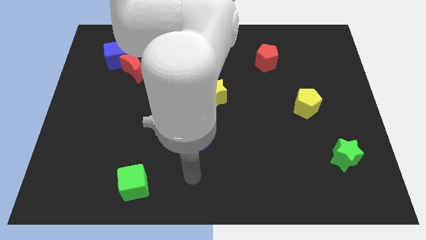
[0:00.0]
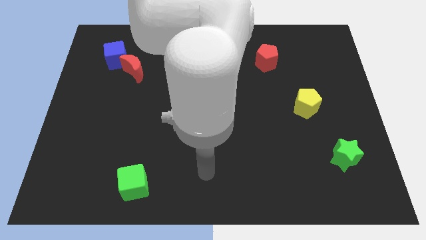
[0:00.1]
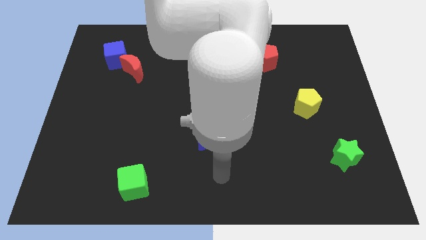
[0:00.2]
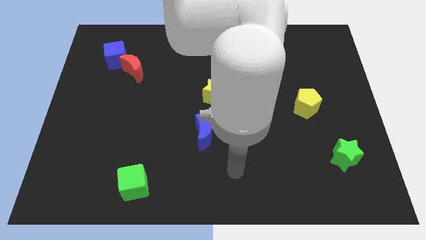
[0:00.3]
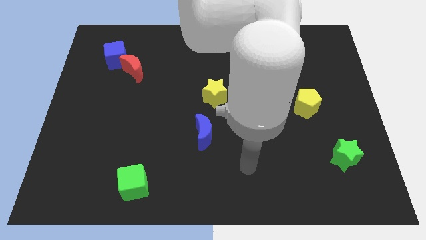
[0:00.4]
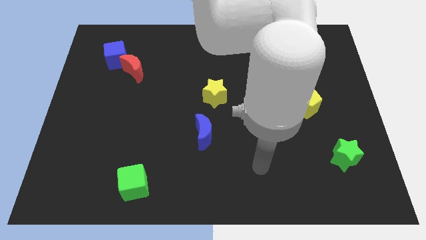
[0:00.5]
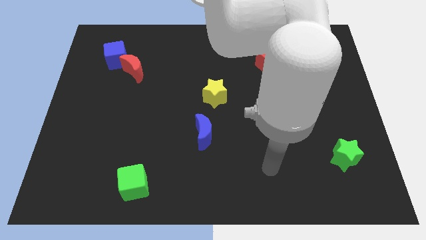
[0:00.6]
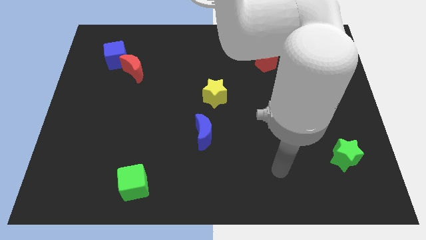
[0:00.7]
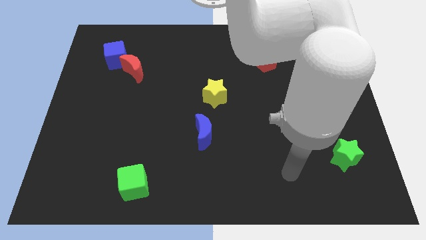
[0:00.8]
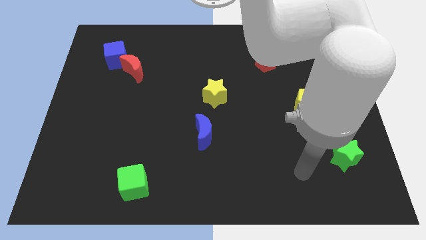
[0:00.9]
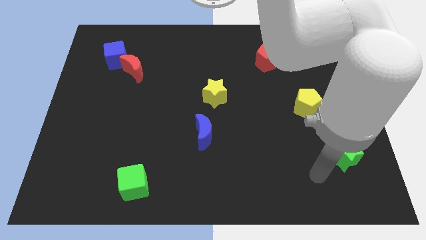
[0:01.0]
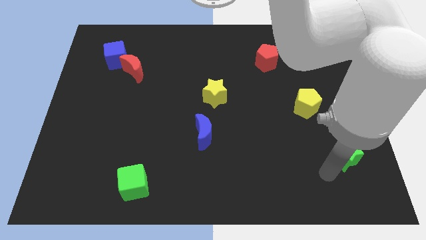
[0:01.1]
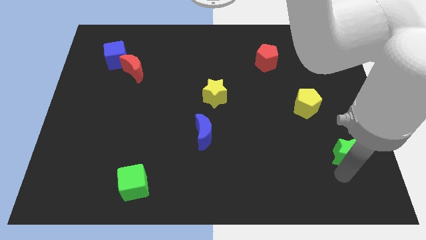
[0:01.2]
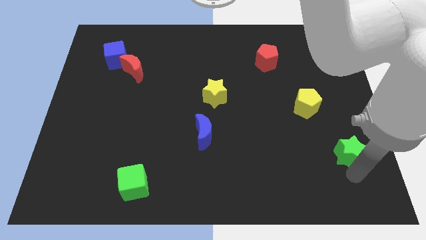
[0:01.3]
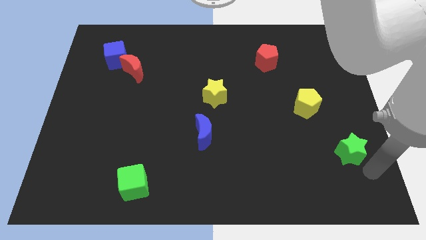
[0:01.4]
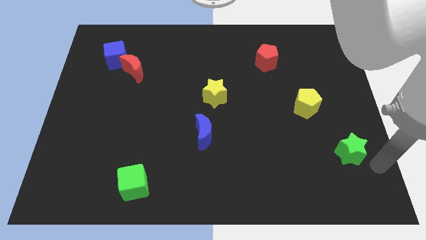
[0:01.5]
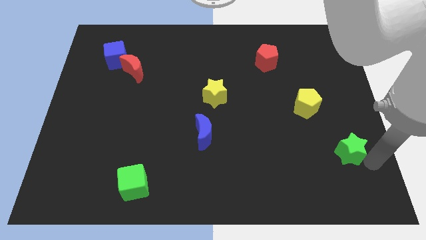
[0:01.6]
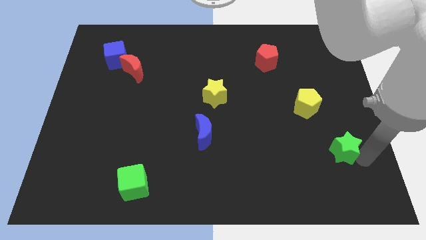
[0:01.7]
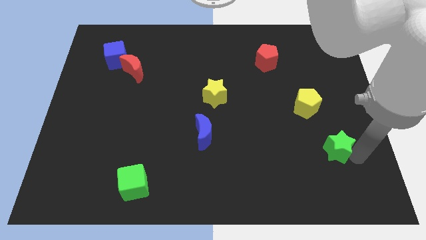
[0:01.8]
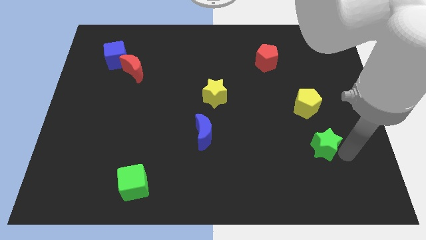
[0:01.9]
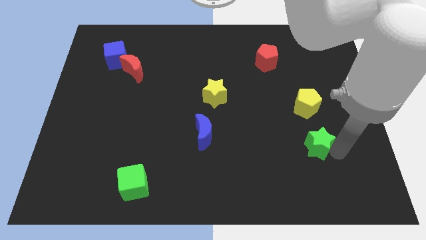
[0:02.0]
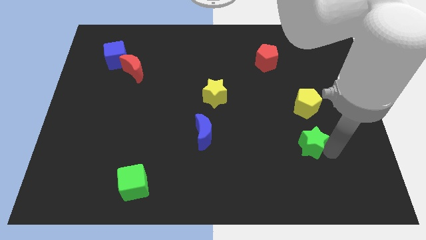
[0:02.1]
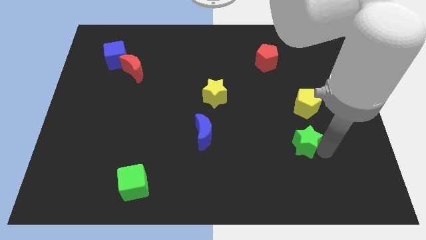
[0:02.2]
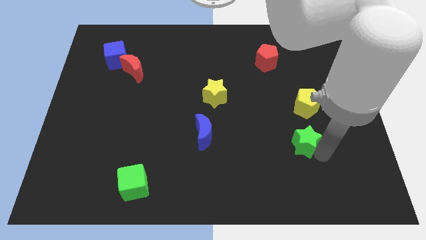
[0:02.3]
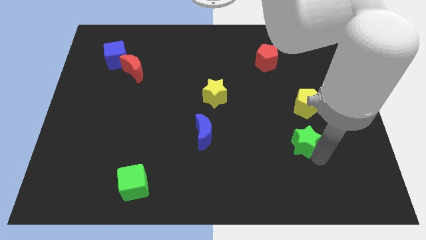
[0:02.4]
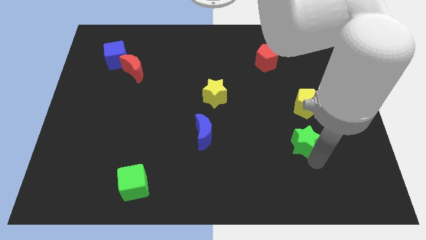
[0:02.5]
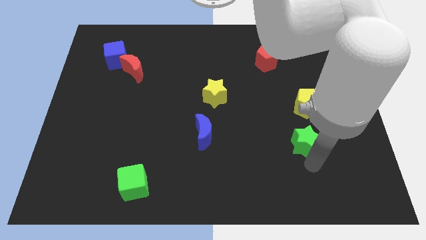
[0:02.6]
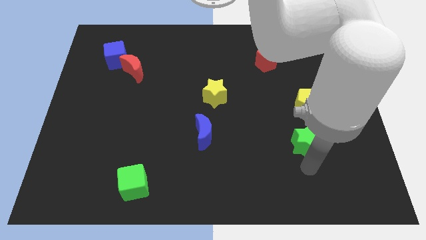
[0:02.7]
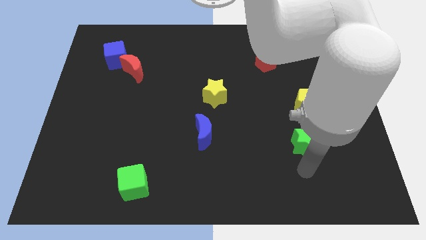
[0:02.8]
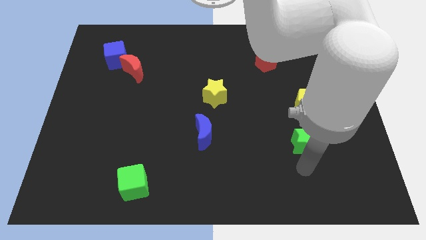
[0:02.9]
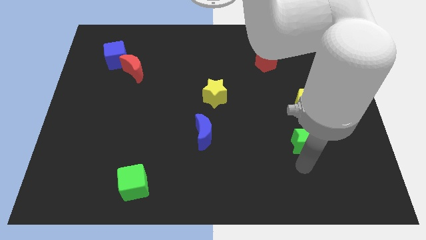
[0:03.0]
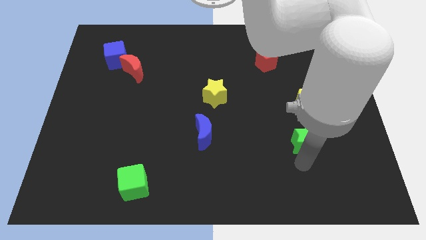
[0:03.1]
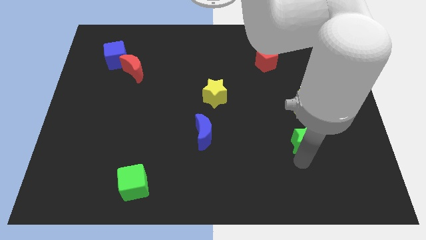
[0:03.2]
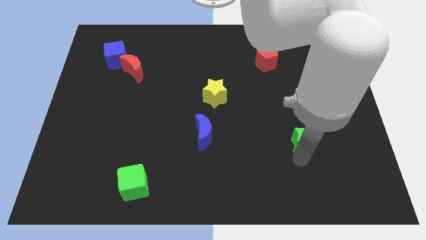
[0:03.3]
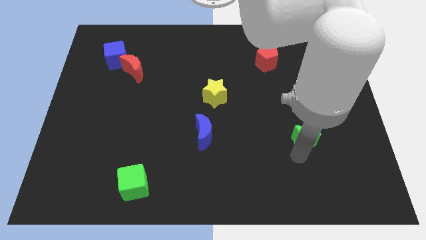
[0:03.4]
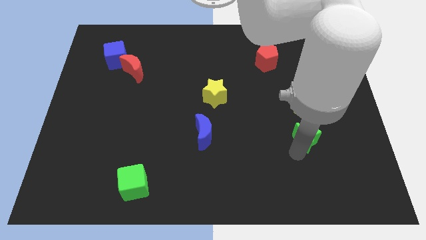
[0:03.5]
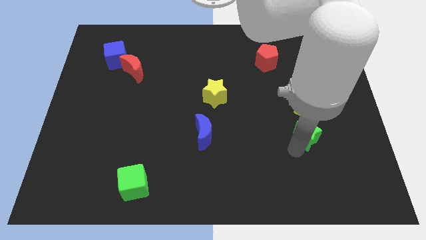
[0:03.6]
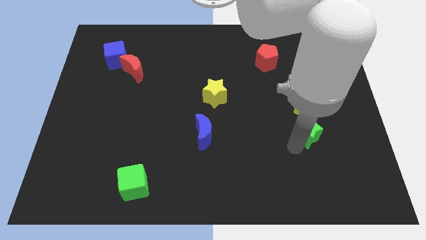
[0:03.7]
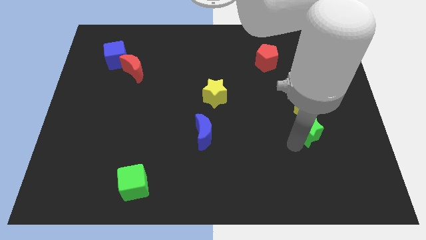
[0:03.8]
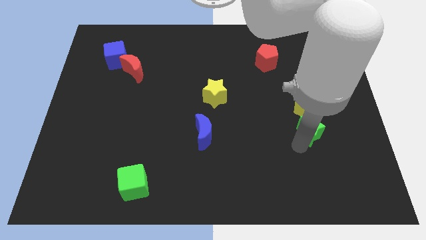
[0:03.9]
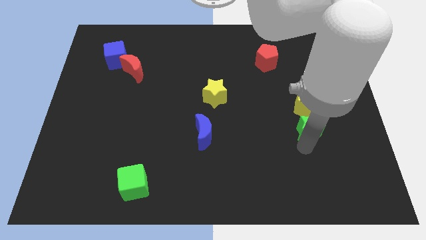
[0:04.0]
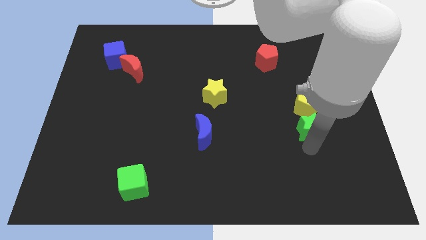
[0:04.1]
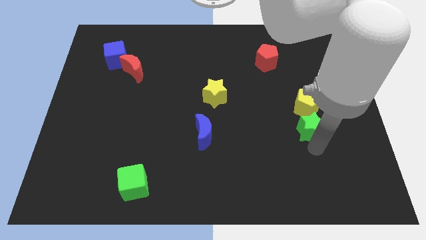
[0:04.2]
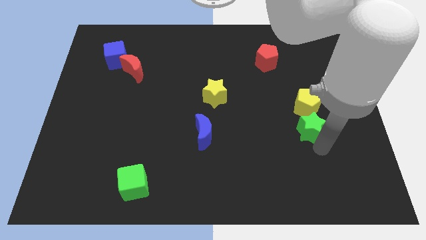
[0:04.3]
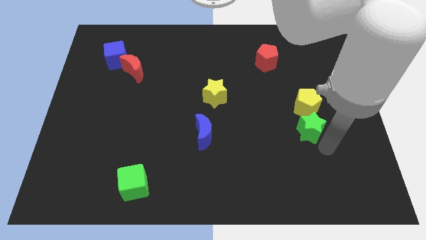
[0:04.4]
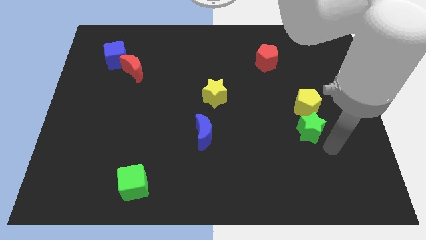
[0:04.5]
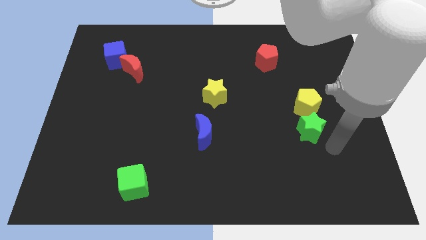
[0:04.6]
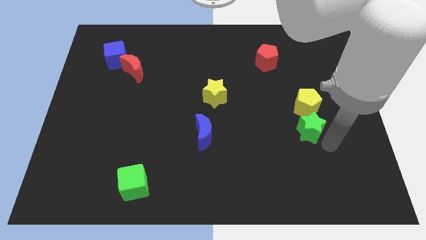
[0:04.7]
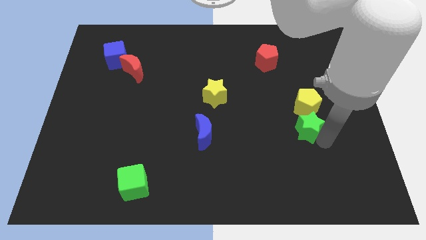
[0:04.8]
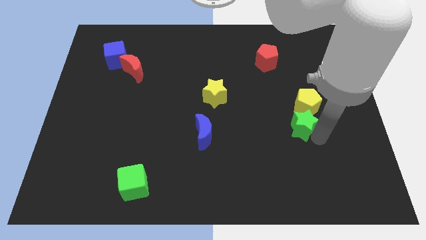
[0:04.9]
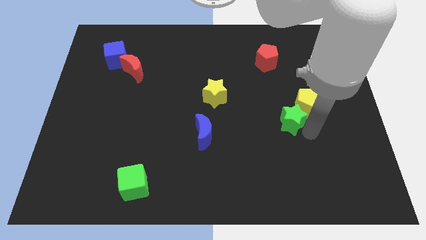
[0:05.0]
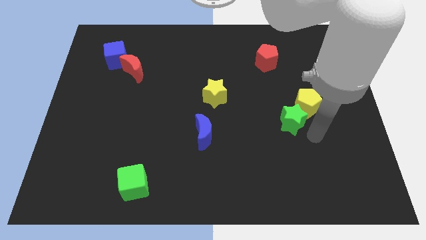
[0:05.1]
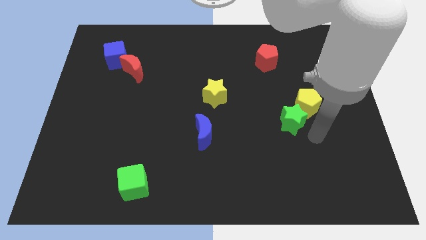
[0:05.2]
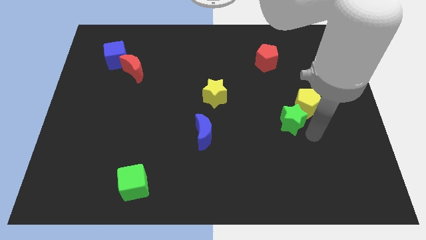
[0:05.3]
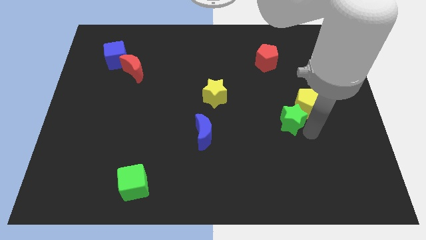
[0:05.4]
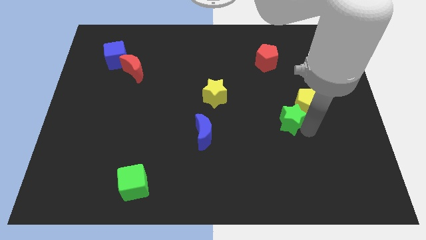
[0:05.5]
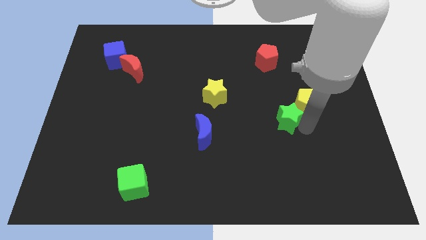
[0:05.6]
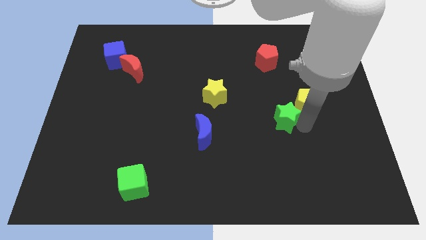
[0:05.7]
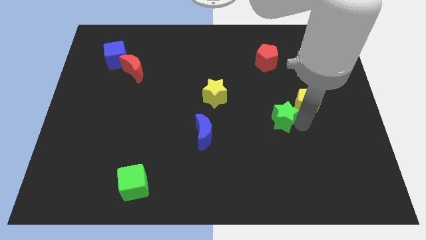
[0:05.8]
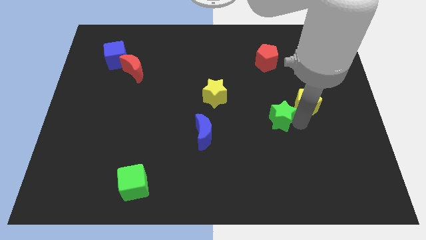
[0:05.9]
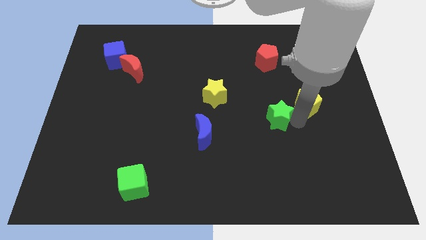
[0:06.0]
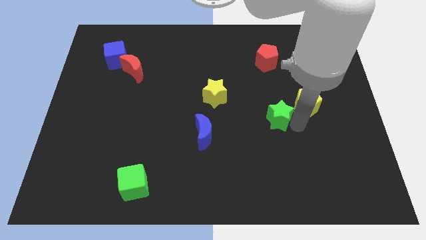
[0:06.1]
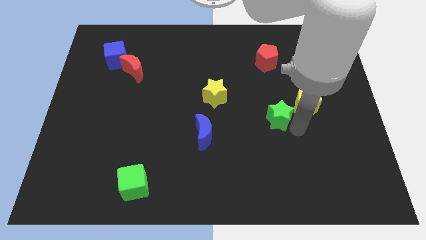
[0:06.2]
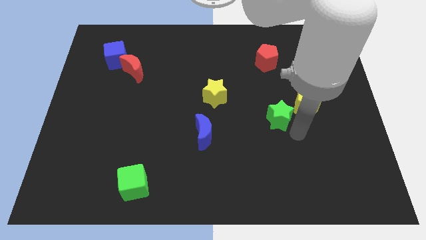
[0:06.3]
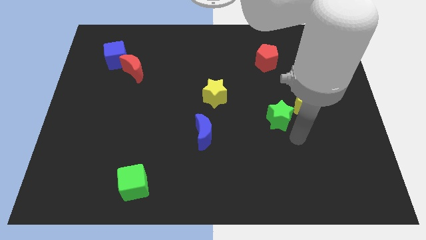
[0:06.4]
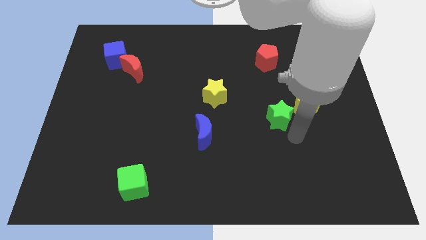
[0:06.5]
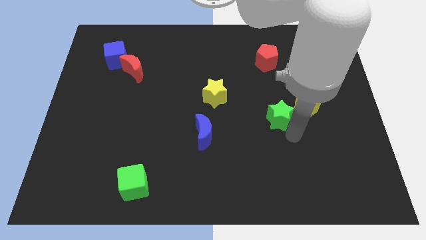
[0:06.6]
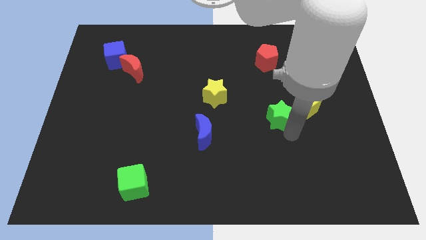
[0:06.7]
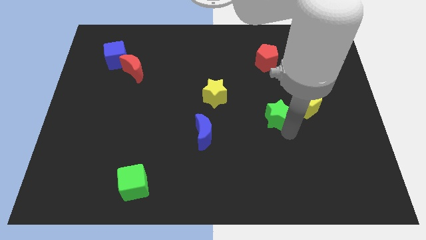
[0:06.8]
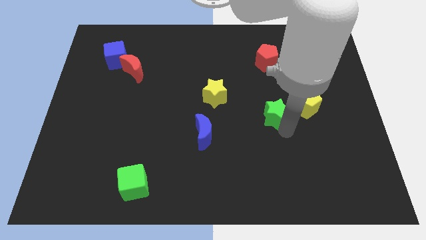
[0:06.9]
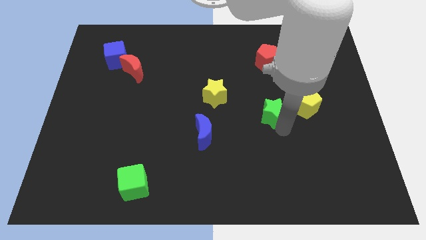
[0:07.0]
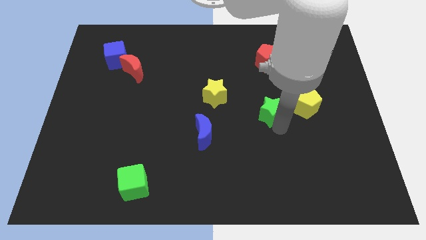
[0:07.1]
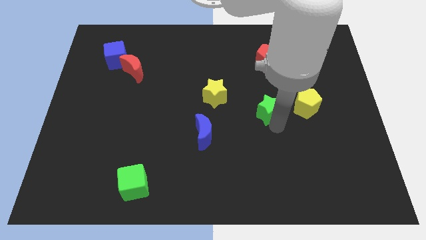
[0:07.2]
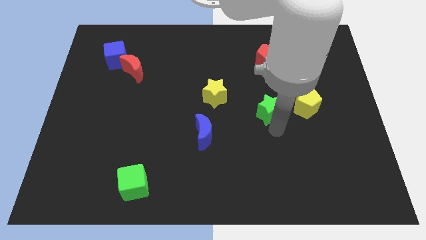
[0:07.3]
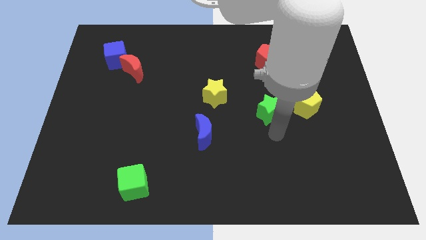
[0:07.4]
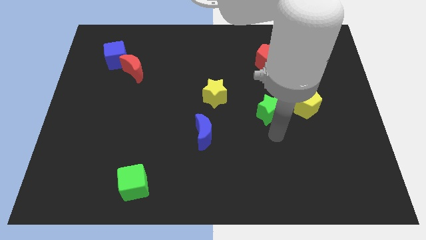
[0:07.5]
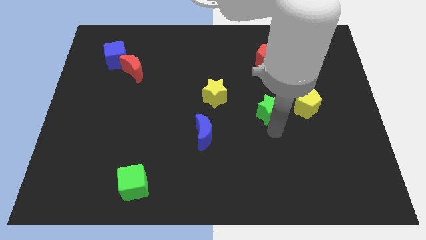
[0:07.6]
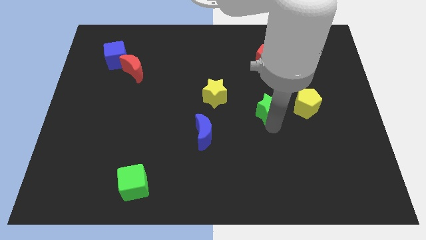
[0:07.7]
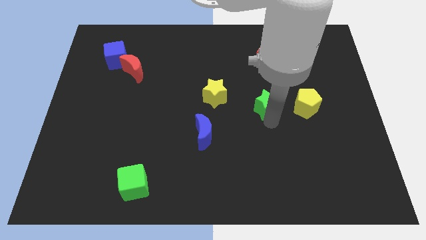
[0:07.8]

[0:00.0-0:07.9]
move the green star diagonally upwards and left
